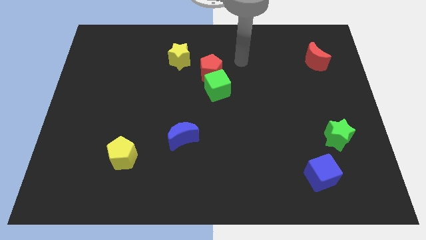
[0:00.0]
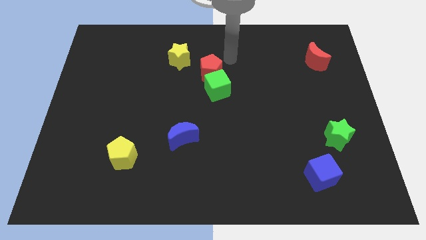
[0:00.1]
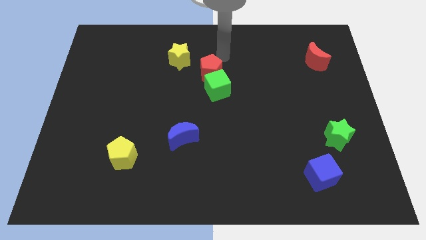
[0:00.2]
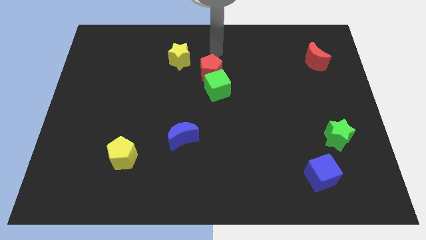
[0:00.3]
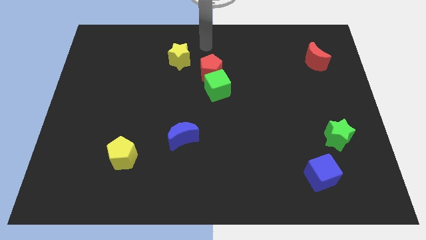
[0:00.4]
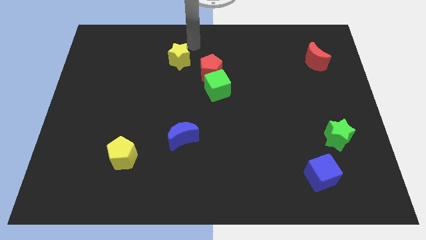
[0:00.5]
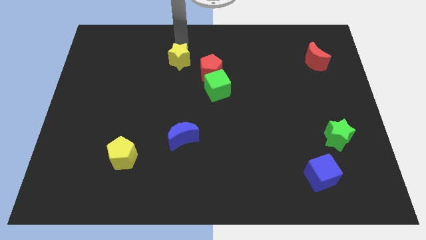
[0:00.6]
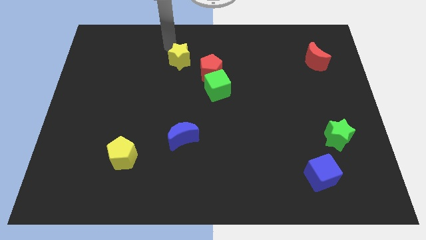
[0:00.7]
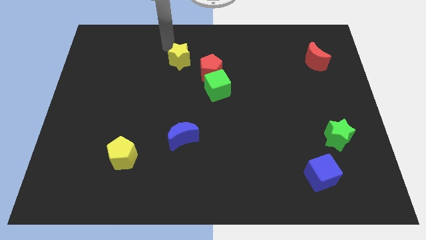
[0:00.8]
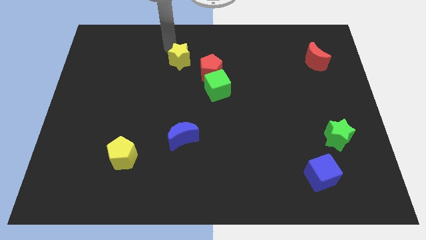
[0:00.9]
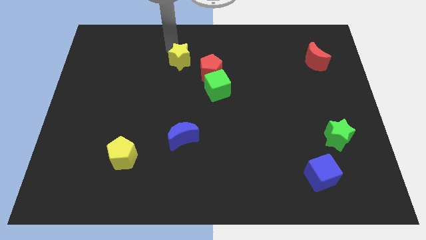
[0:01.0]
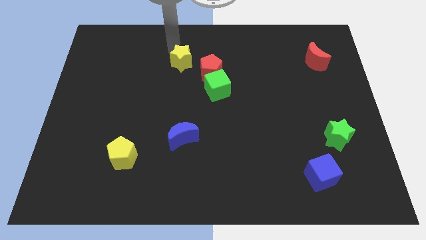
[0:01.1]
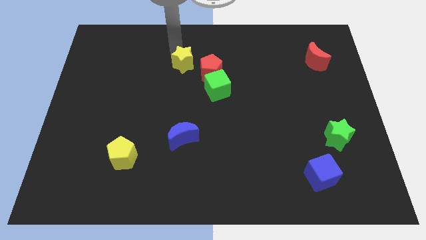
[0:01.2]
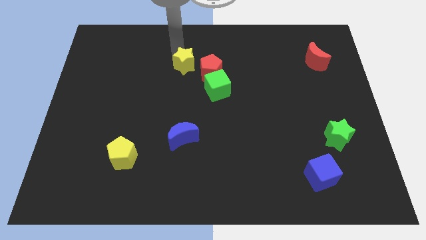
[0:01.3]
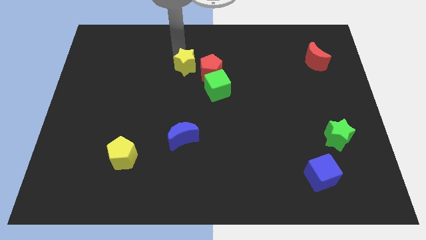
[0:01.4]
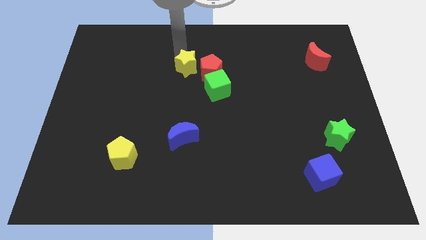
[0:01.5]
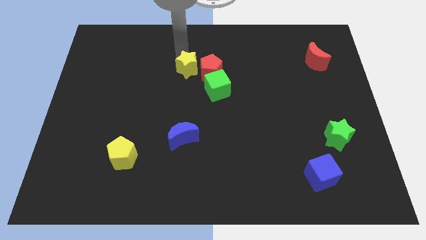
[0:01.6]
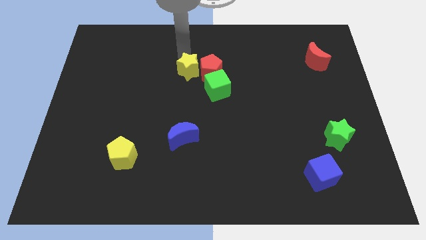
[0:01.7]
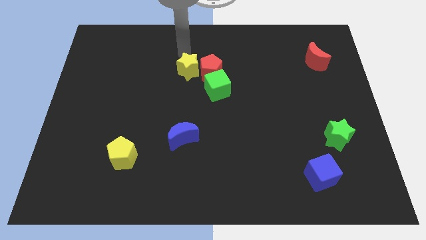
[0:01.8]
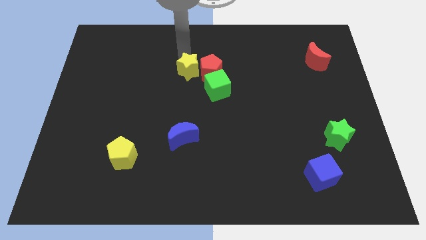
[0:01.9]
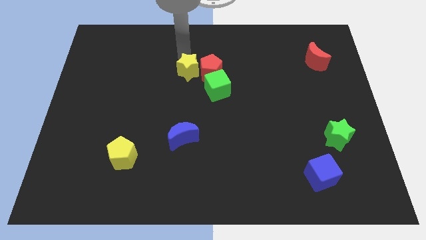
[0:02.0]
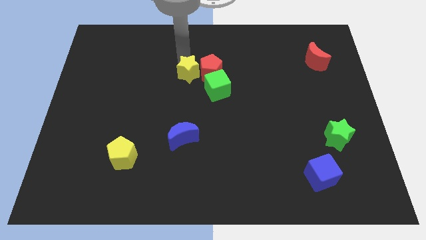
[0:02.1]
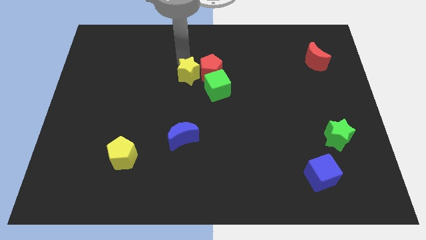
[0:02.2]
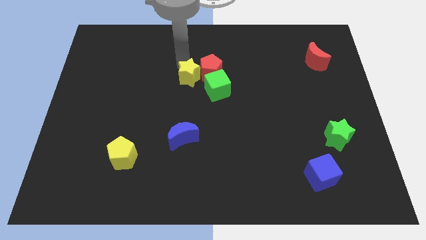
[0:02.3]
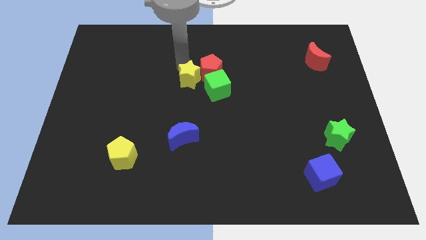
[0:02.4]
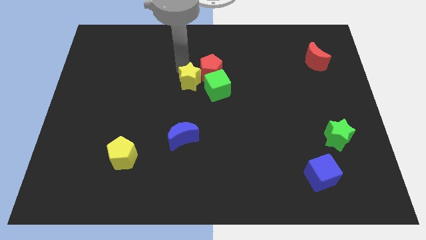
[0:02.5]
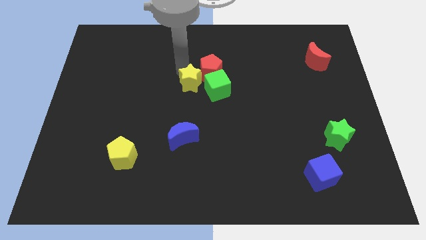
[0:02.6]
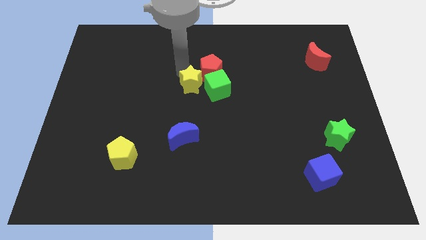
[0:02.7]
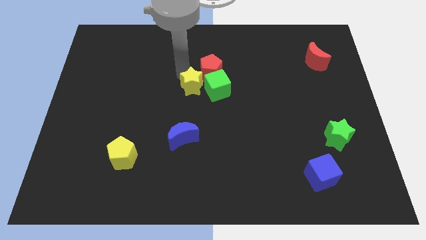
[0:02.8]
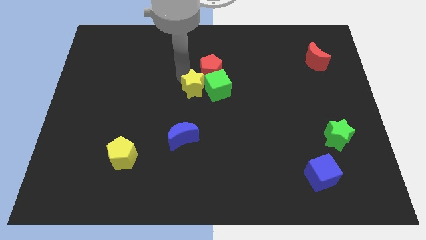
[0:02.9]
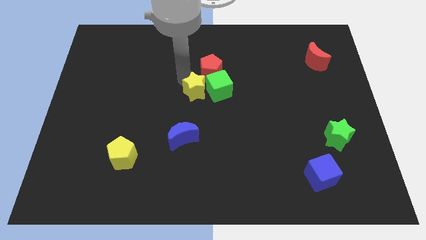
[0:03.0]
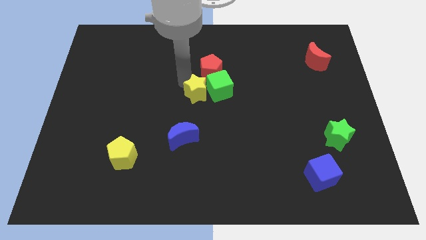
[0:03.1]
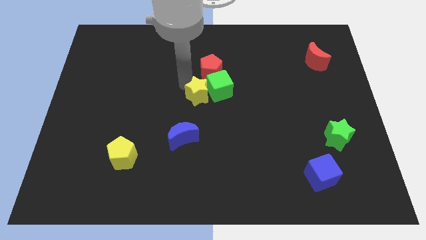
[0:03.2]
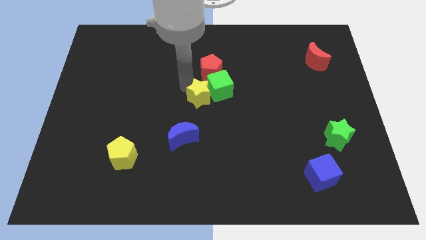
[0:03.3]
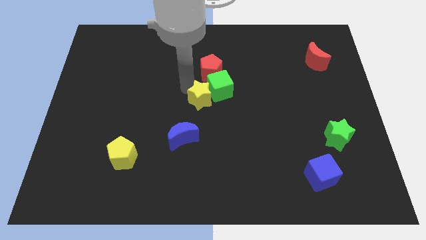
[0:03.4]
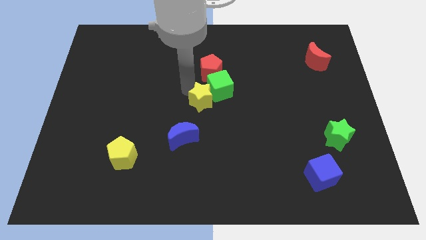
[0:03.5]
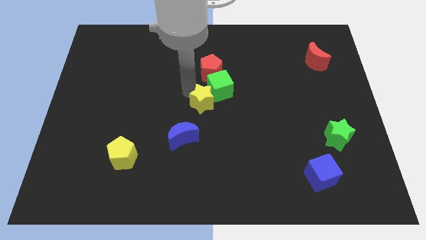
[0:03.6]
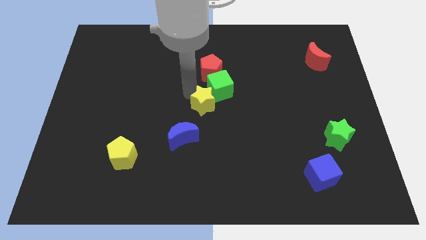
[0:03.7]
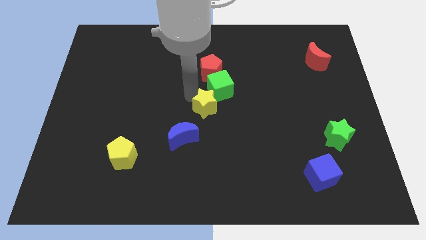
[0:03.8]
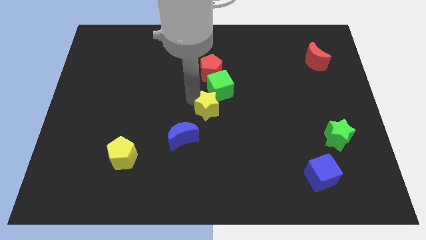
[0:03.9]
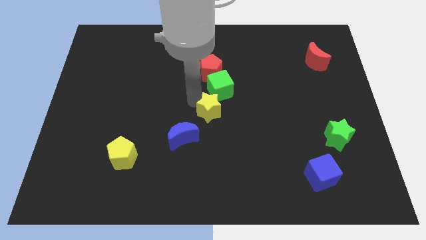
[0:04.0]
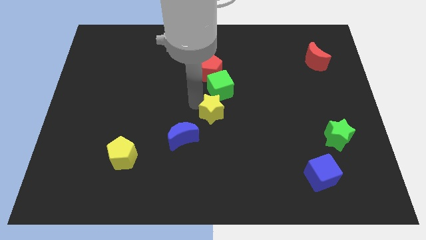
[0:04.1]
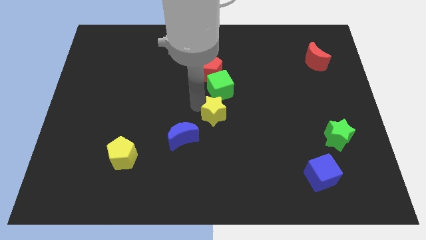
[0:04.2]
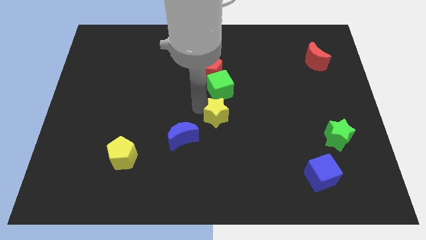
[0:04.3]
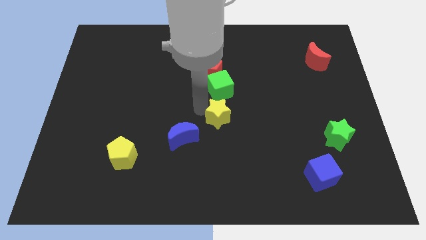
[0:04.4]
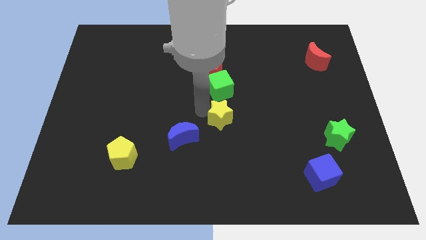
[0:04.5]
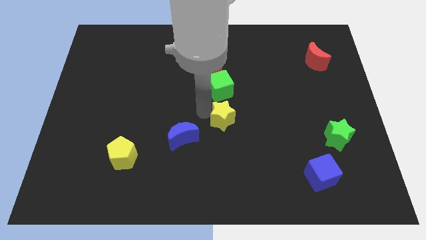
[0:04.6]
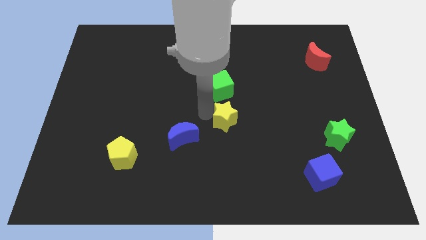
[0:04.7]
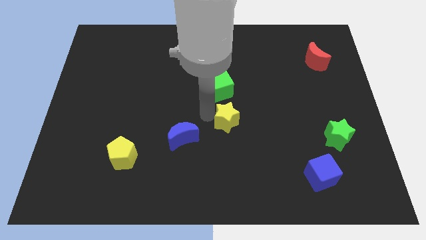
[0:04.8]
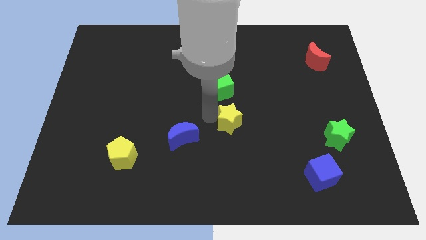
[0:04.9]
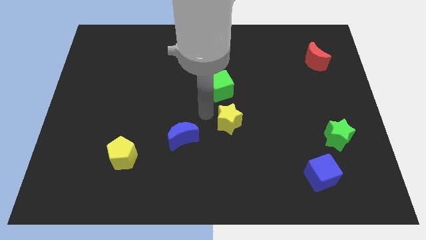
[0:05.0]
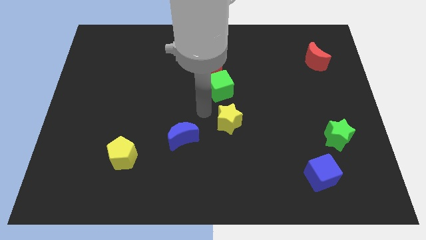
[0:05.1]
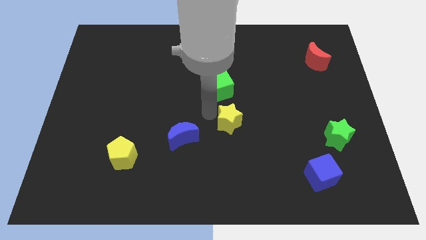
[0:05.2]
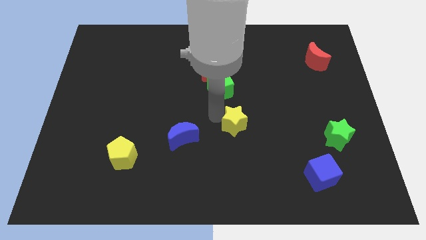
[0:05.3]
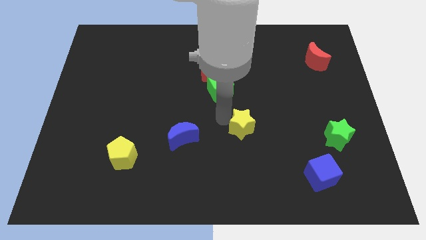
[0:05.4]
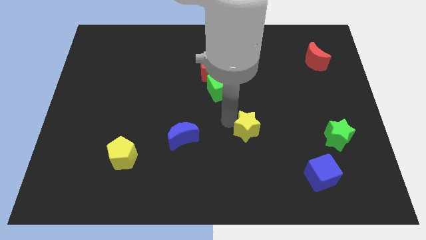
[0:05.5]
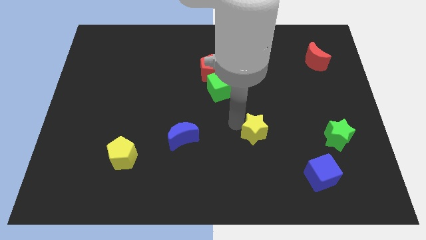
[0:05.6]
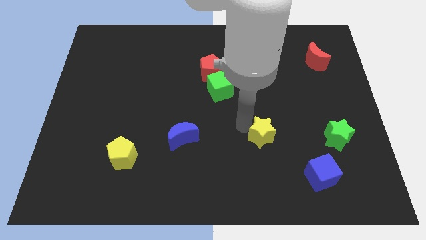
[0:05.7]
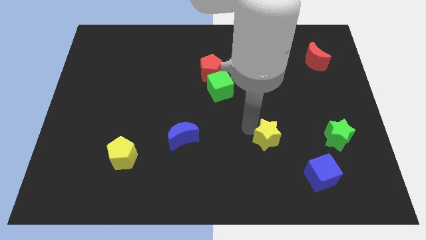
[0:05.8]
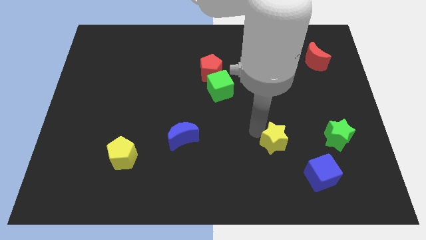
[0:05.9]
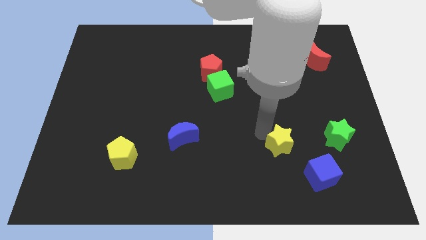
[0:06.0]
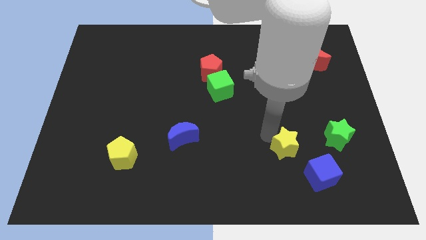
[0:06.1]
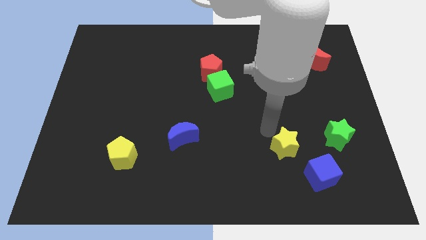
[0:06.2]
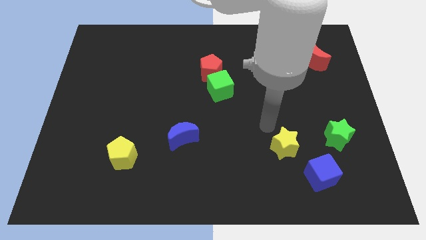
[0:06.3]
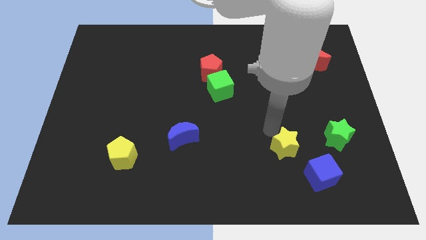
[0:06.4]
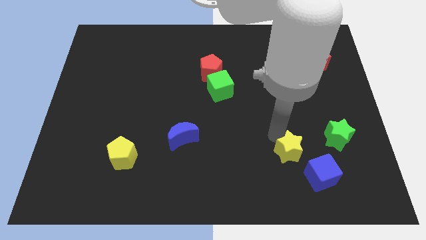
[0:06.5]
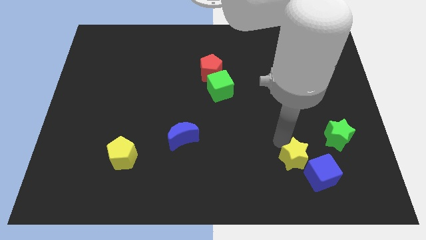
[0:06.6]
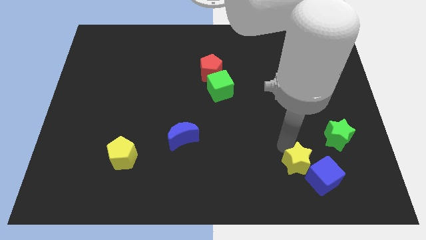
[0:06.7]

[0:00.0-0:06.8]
slide the yellow star close to the blue cube

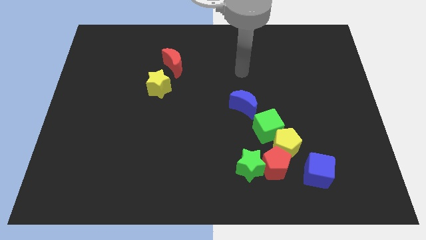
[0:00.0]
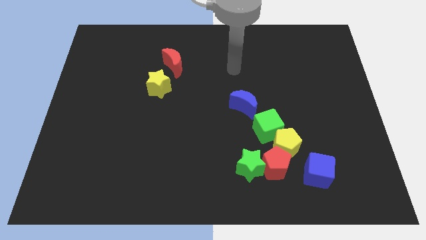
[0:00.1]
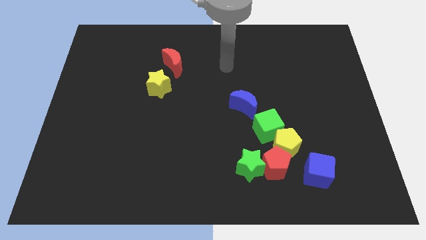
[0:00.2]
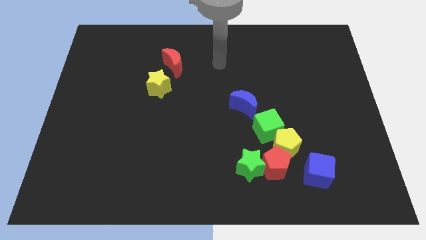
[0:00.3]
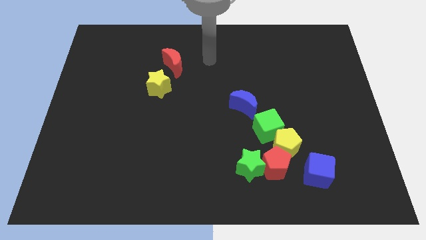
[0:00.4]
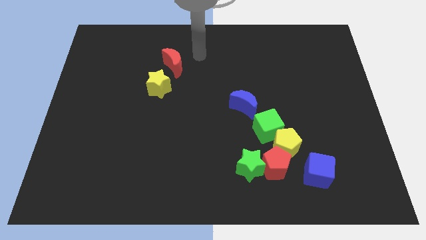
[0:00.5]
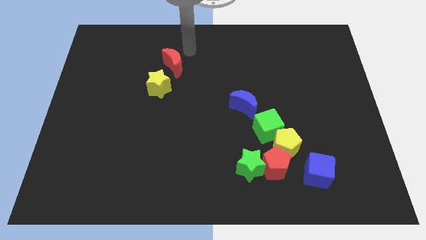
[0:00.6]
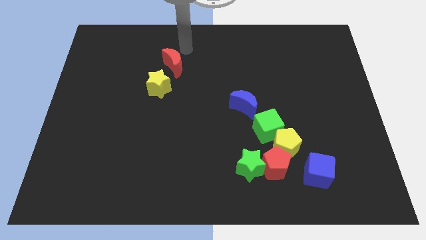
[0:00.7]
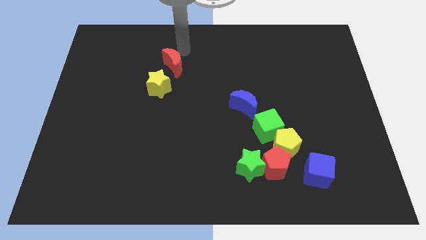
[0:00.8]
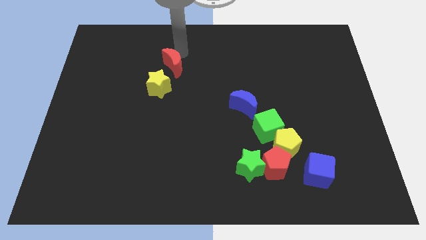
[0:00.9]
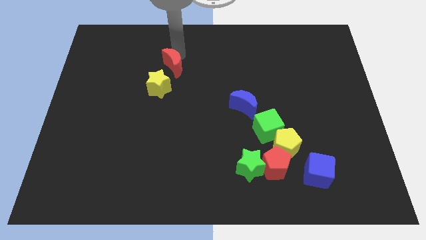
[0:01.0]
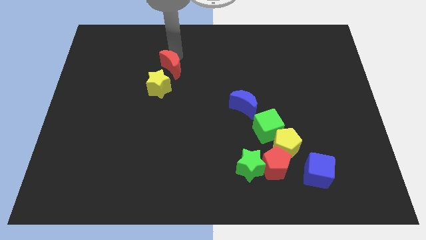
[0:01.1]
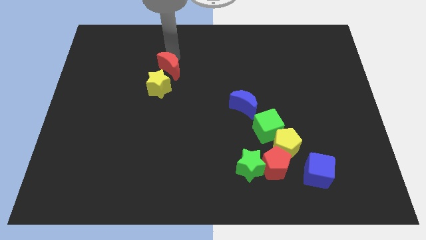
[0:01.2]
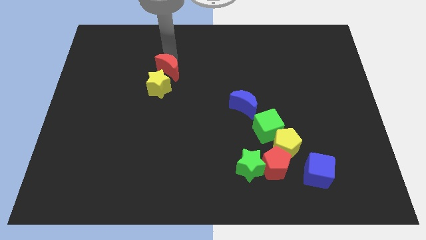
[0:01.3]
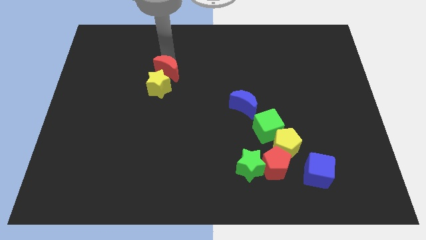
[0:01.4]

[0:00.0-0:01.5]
move the red moon next to the yellow star
